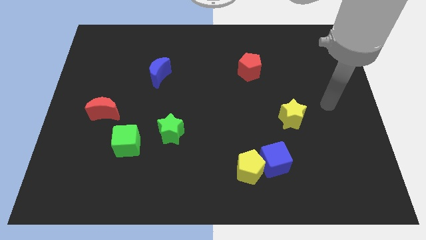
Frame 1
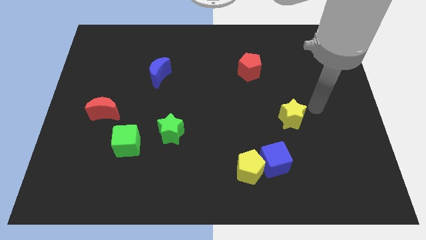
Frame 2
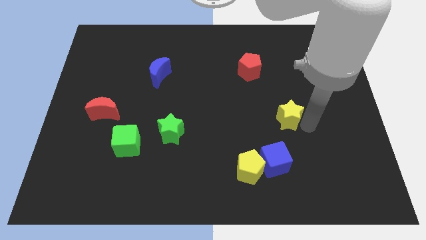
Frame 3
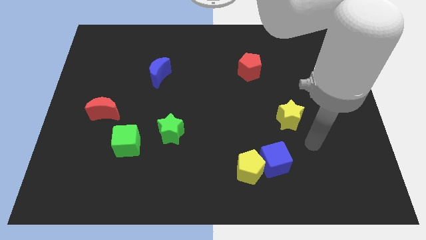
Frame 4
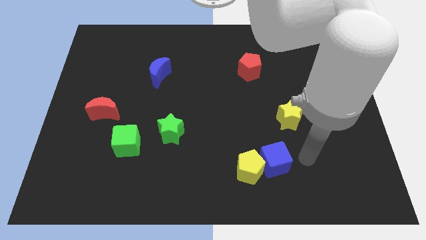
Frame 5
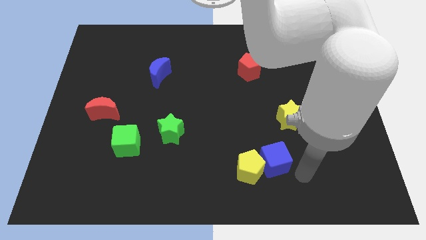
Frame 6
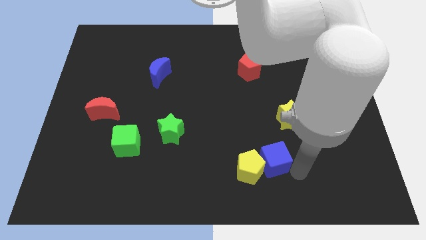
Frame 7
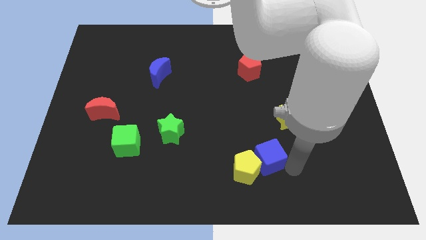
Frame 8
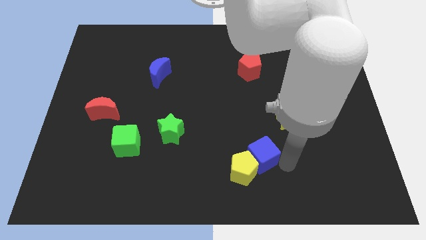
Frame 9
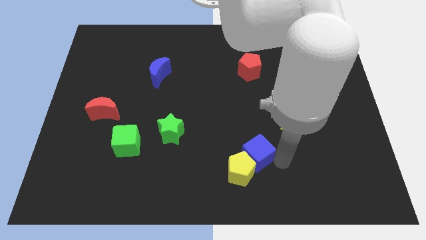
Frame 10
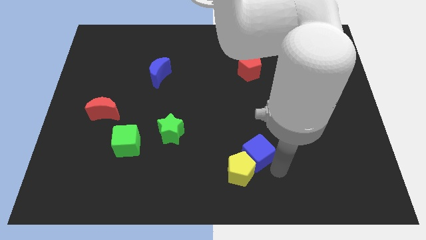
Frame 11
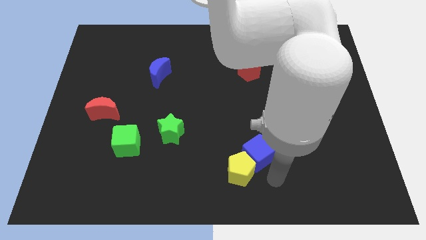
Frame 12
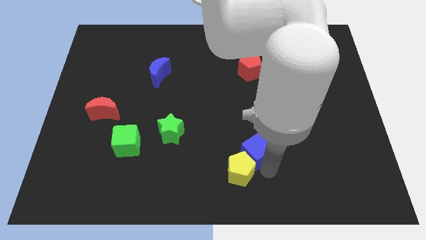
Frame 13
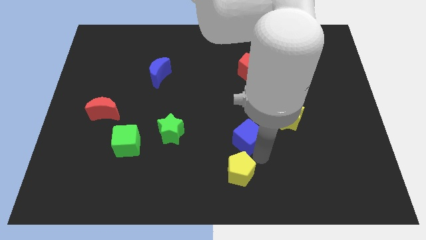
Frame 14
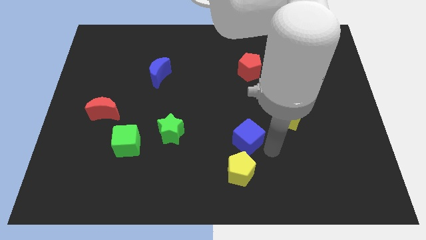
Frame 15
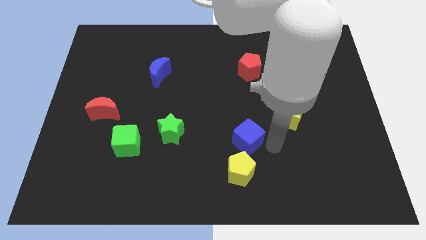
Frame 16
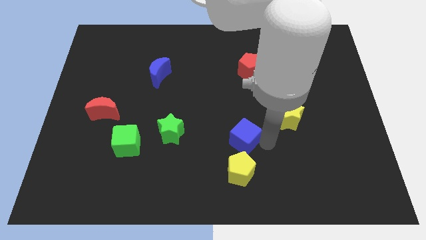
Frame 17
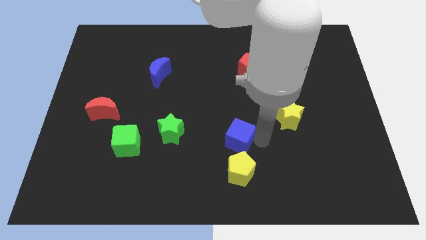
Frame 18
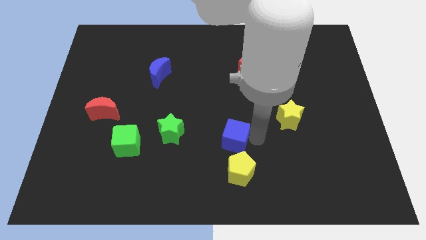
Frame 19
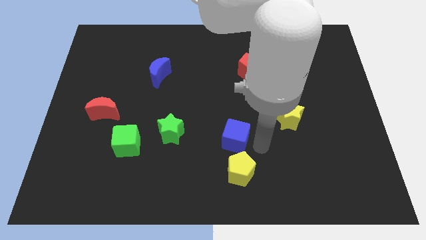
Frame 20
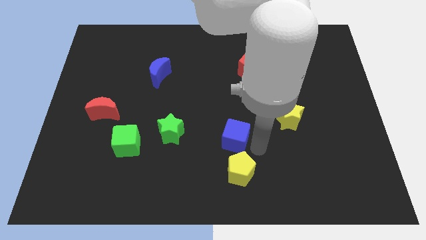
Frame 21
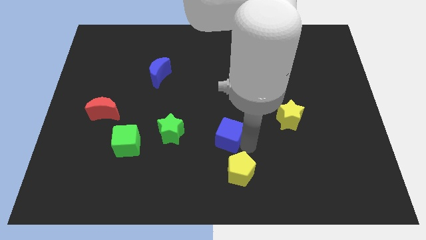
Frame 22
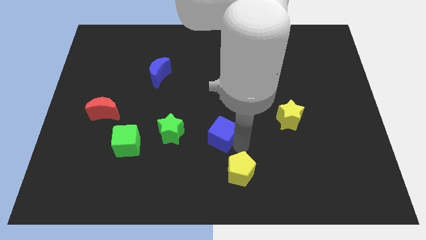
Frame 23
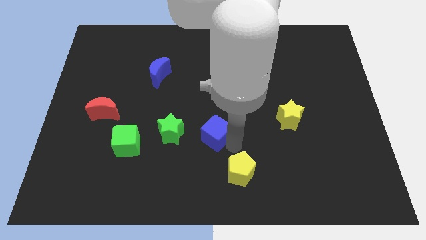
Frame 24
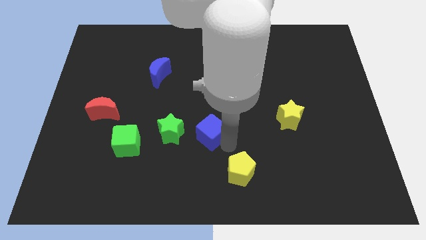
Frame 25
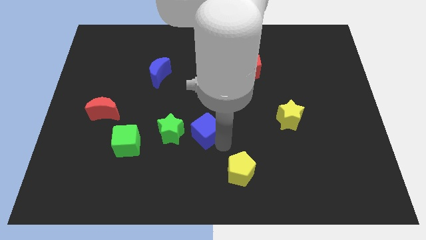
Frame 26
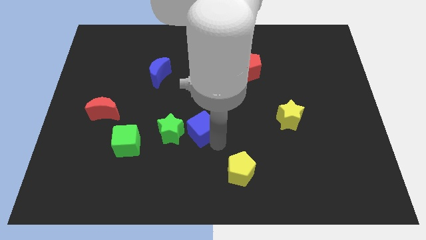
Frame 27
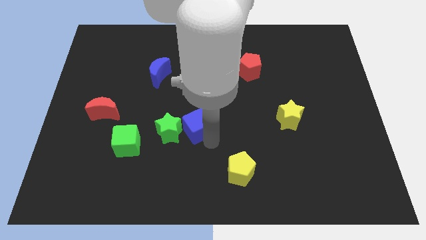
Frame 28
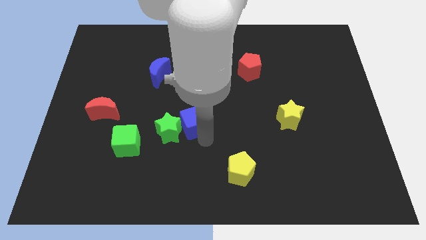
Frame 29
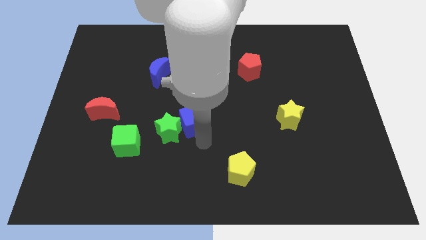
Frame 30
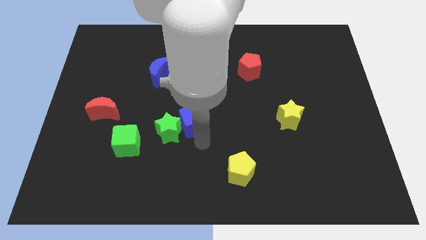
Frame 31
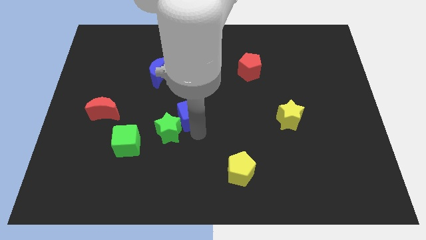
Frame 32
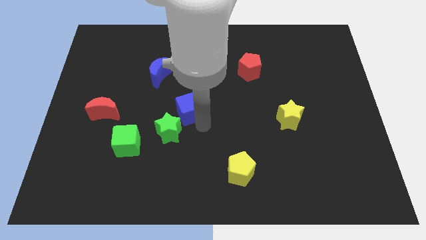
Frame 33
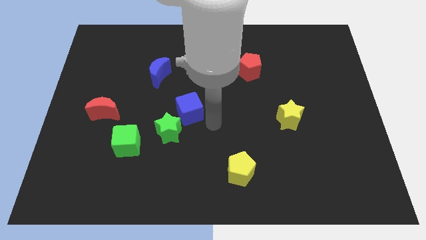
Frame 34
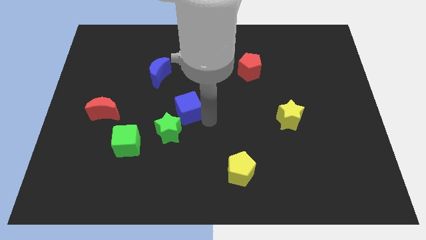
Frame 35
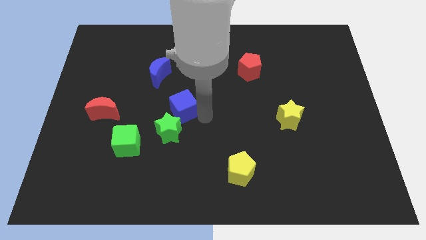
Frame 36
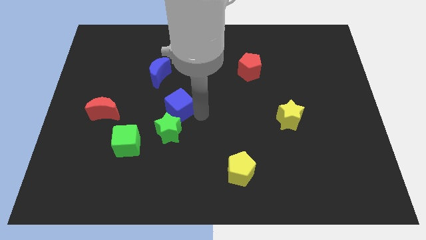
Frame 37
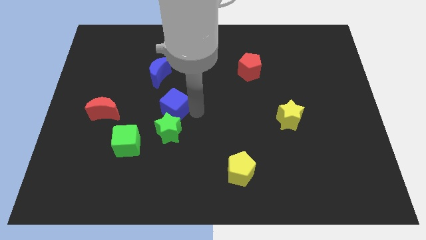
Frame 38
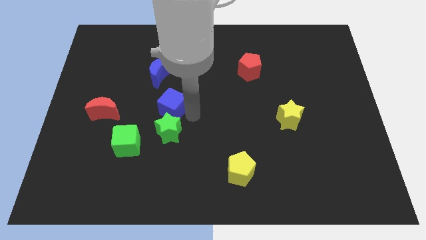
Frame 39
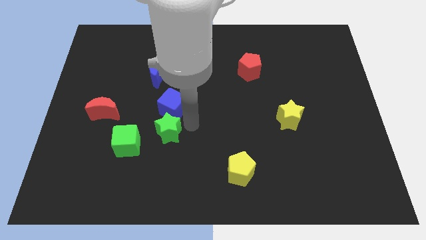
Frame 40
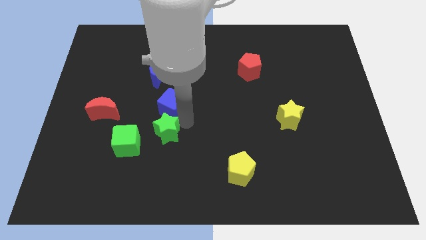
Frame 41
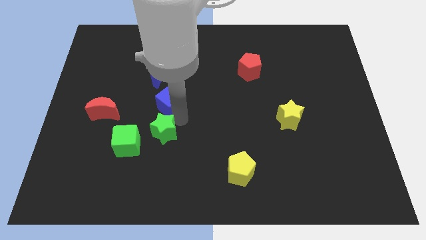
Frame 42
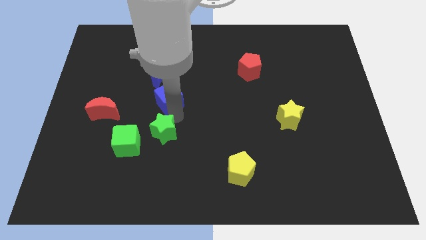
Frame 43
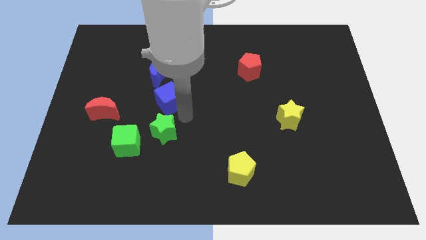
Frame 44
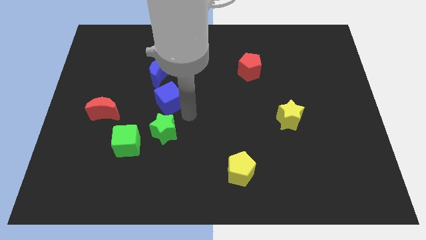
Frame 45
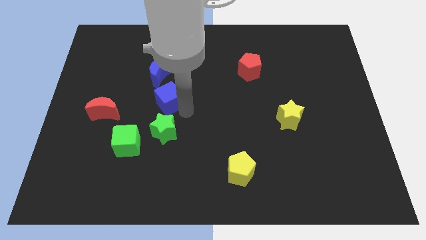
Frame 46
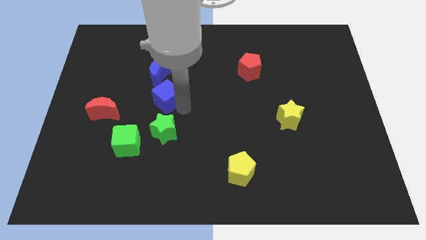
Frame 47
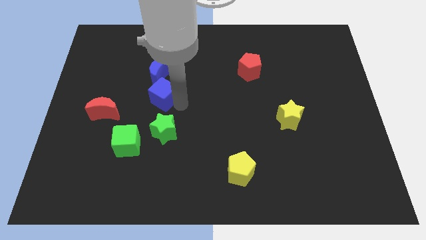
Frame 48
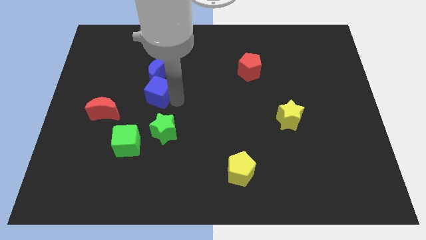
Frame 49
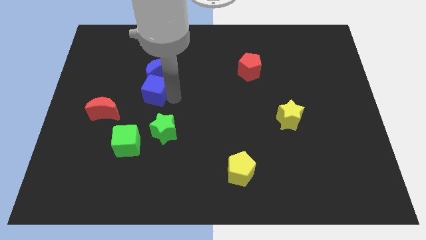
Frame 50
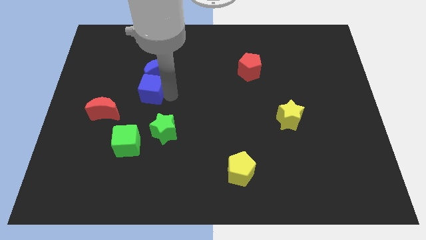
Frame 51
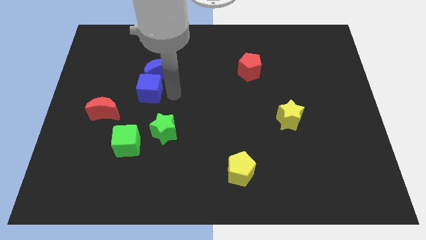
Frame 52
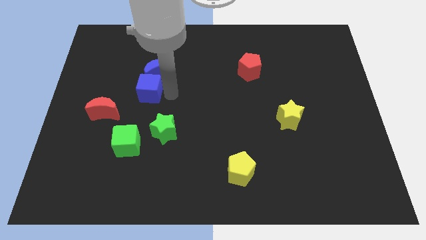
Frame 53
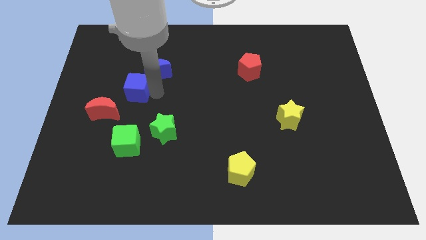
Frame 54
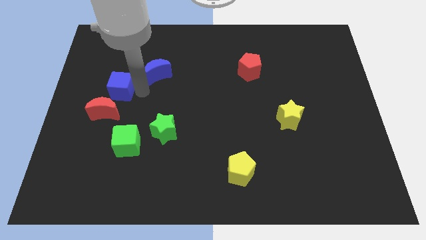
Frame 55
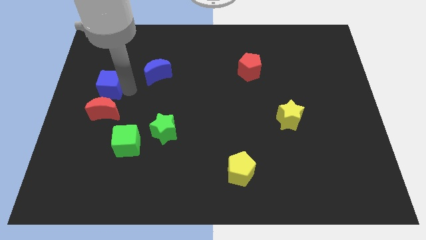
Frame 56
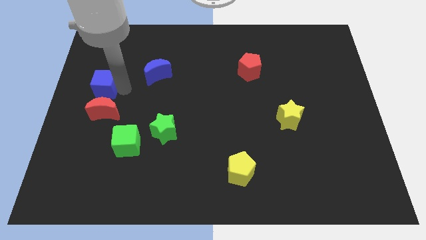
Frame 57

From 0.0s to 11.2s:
put the blue cube to the left side of the board
